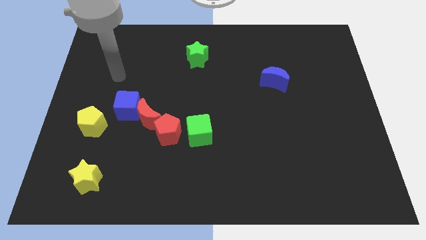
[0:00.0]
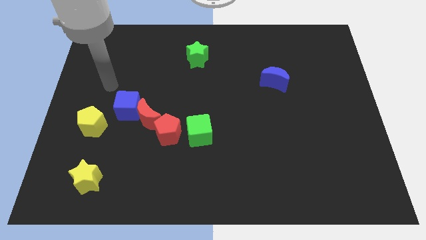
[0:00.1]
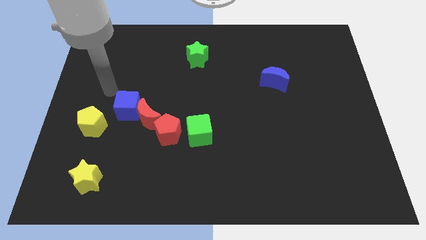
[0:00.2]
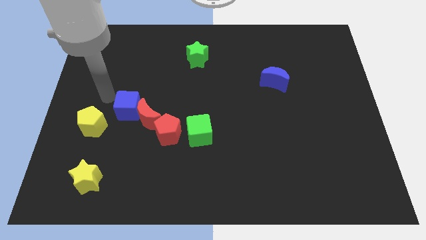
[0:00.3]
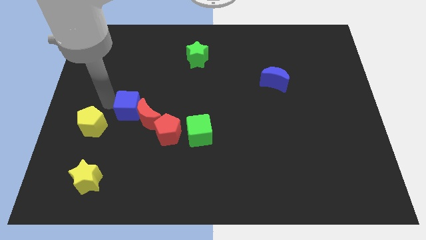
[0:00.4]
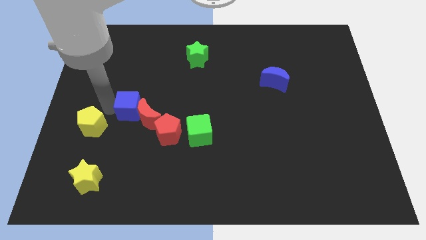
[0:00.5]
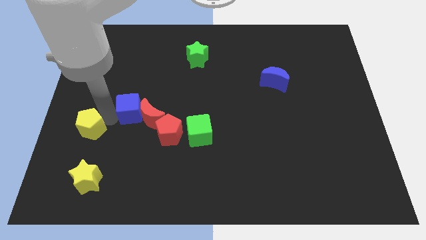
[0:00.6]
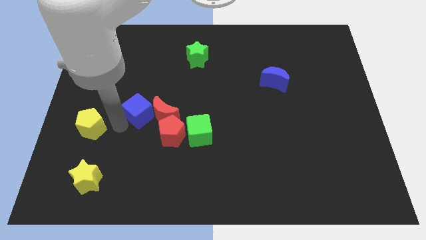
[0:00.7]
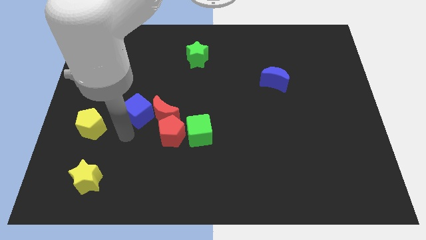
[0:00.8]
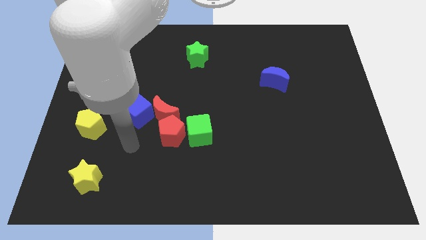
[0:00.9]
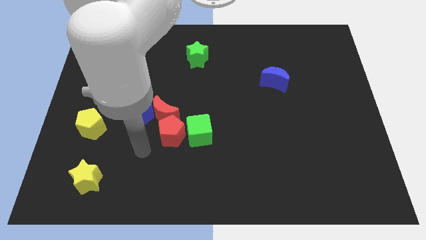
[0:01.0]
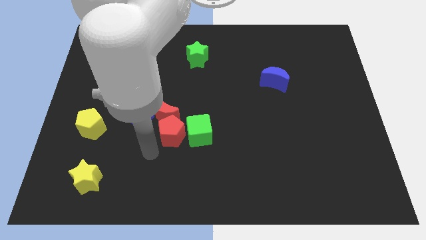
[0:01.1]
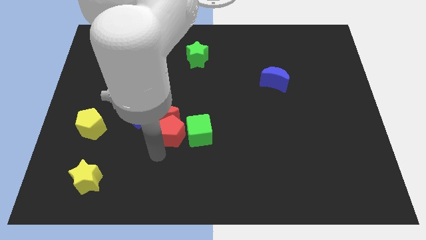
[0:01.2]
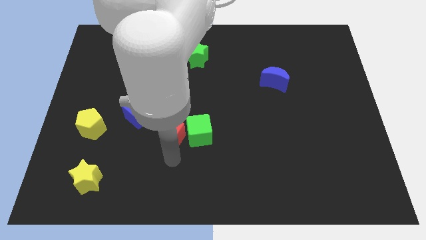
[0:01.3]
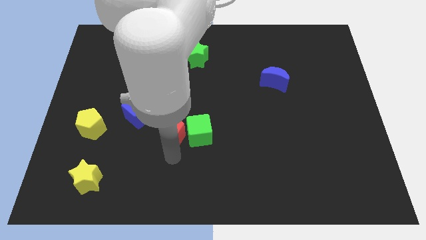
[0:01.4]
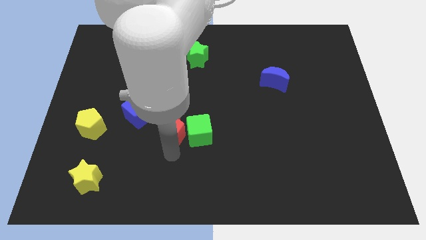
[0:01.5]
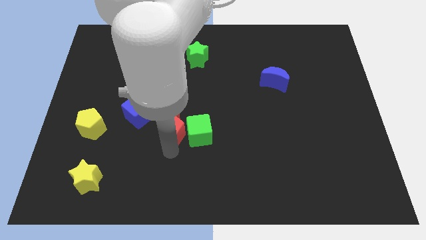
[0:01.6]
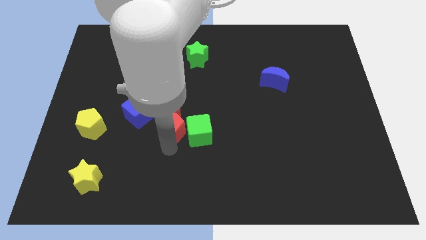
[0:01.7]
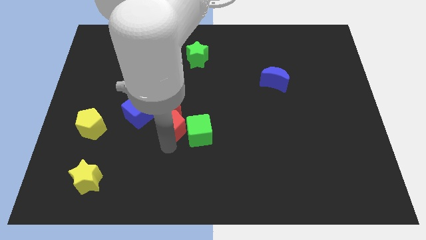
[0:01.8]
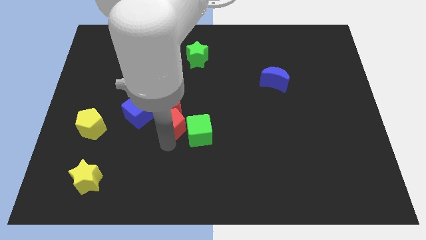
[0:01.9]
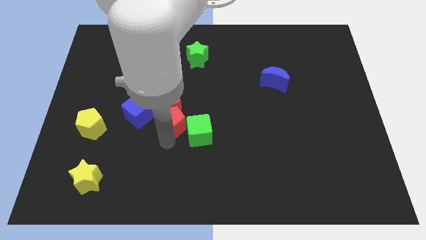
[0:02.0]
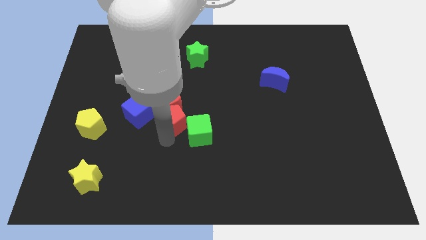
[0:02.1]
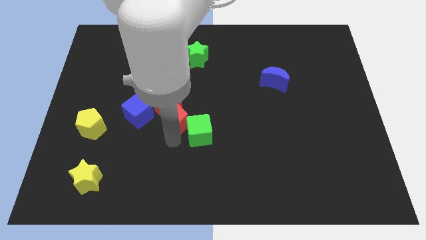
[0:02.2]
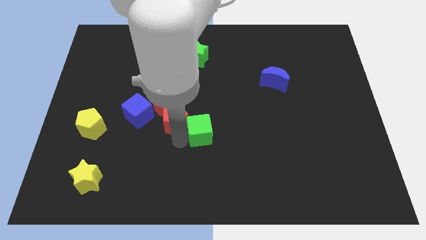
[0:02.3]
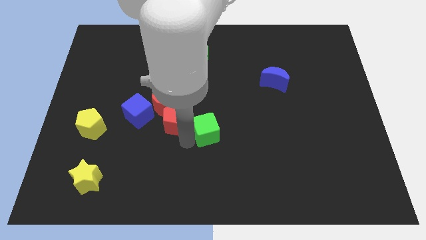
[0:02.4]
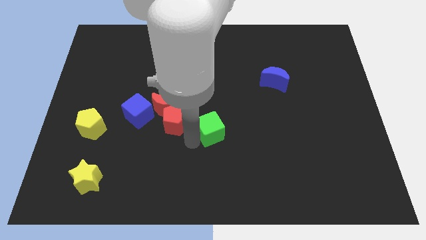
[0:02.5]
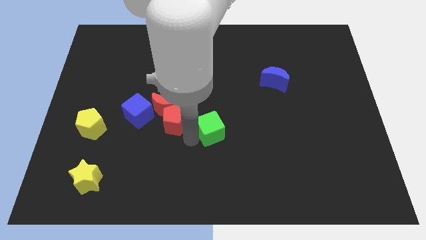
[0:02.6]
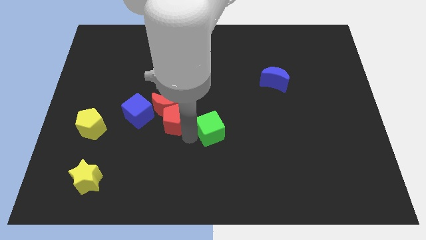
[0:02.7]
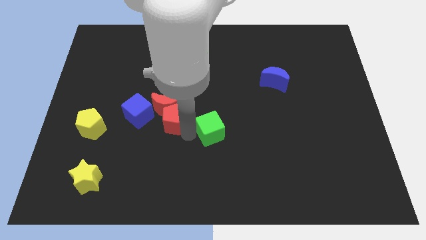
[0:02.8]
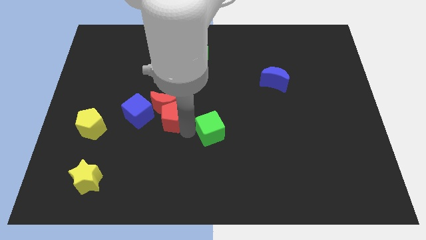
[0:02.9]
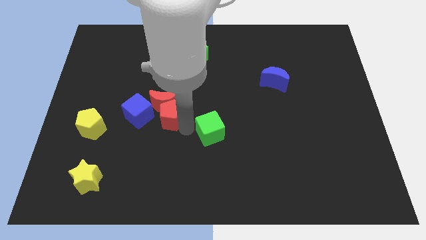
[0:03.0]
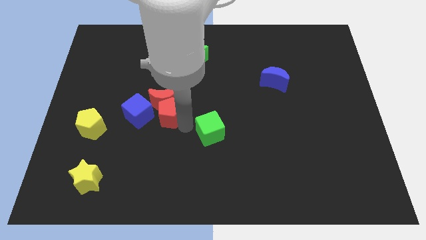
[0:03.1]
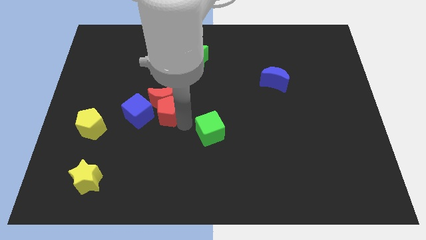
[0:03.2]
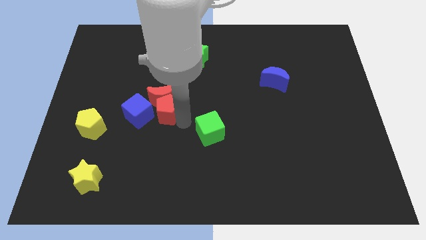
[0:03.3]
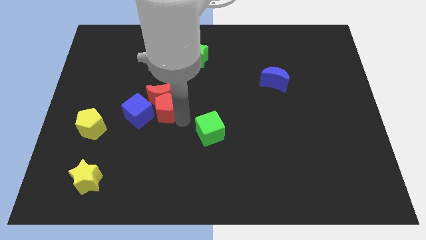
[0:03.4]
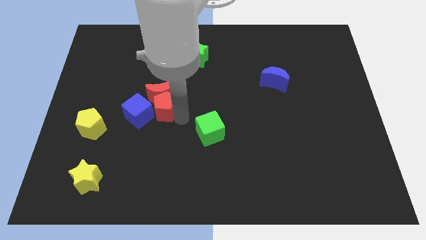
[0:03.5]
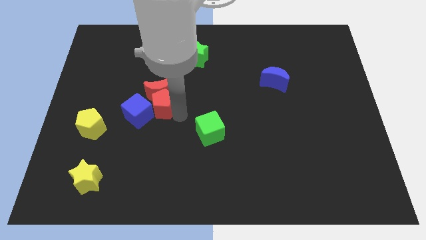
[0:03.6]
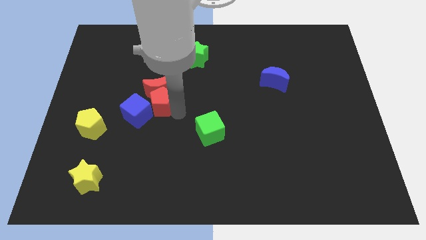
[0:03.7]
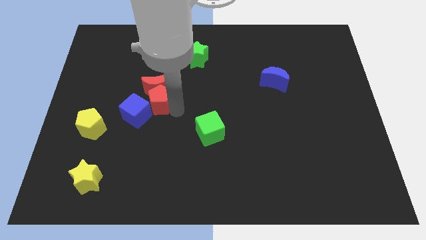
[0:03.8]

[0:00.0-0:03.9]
slightly slide the red pentagon diagonally up and to the left

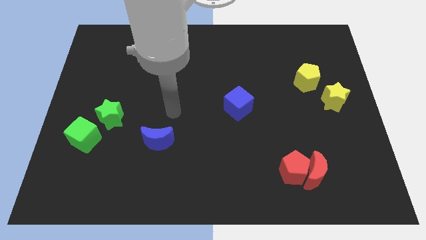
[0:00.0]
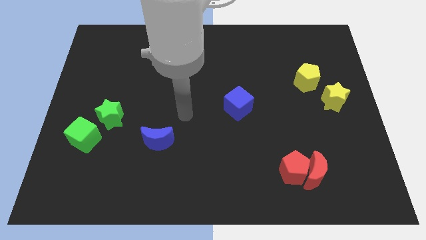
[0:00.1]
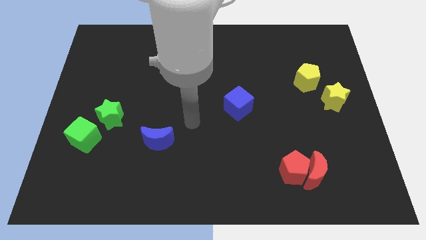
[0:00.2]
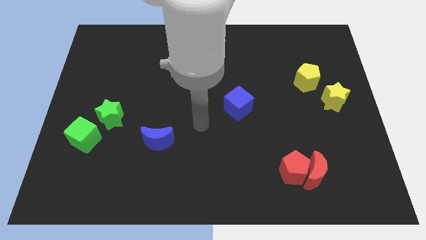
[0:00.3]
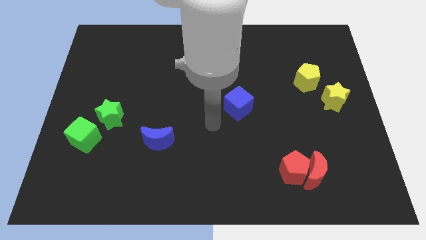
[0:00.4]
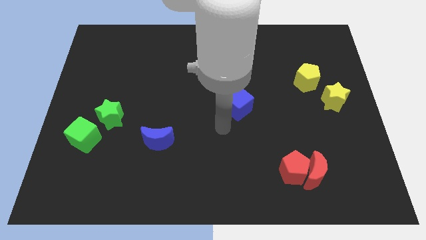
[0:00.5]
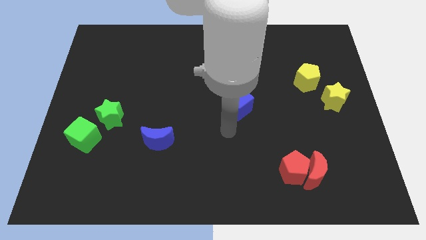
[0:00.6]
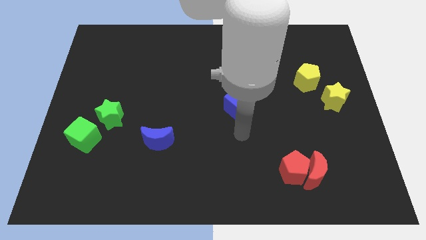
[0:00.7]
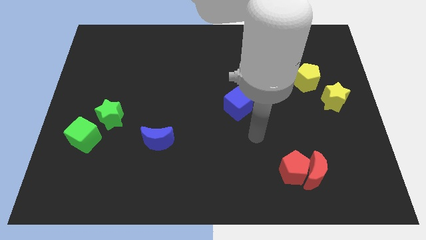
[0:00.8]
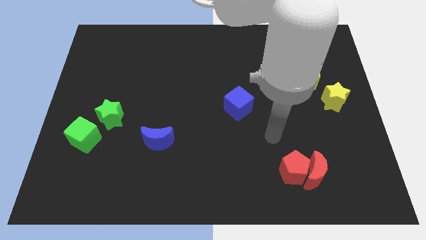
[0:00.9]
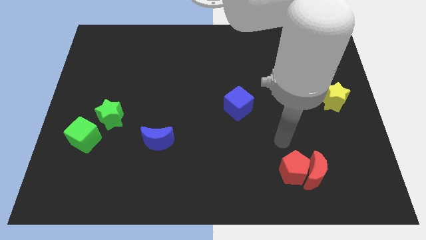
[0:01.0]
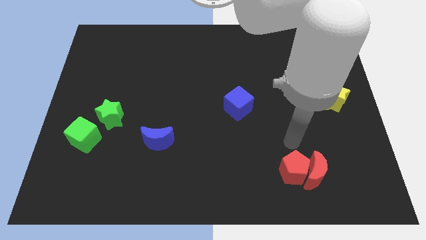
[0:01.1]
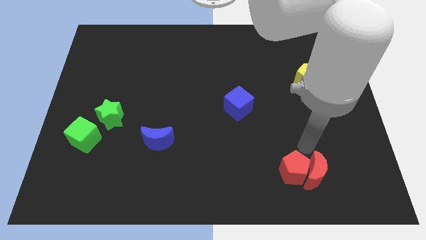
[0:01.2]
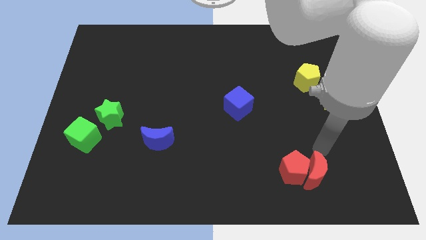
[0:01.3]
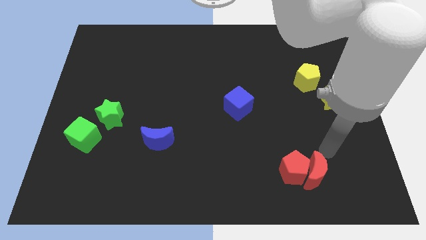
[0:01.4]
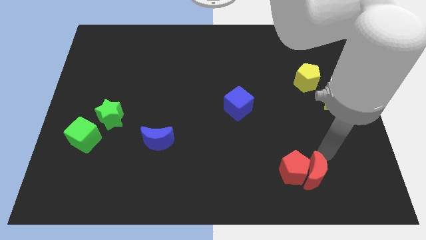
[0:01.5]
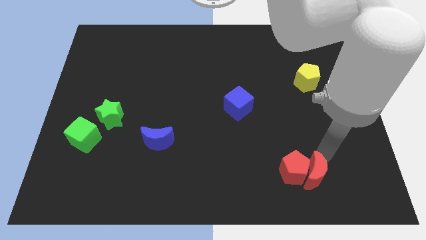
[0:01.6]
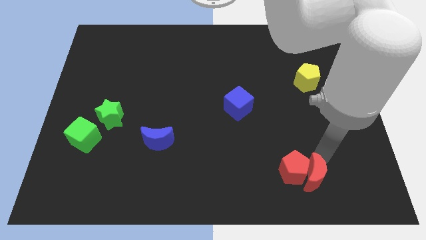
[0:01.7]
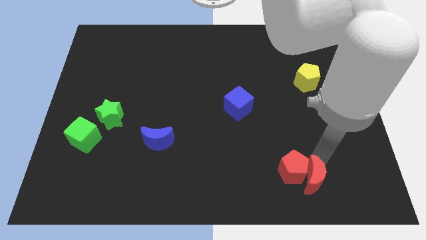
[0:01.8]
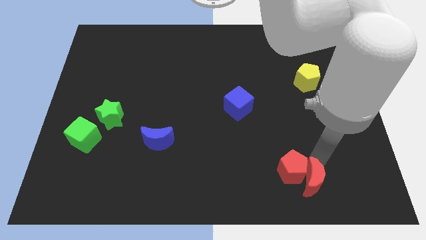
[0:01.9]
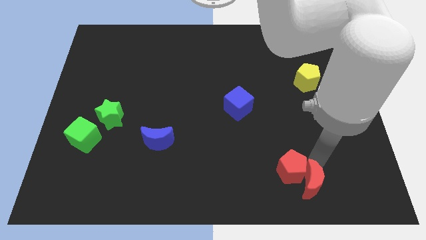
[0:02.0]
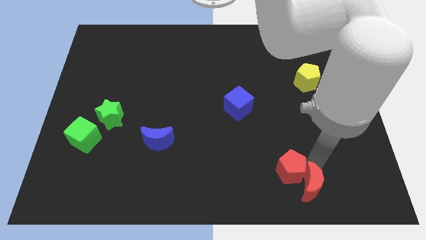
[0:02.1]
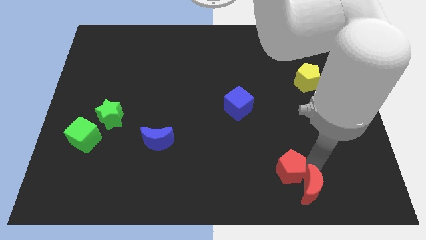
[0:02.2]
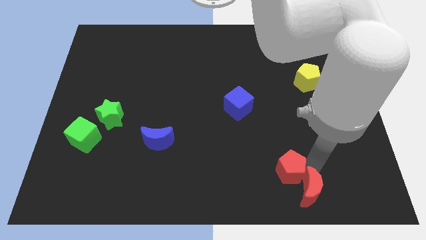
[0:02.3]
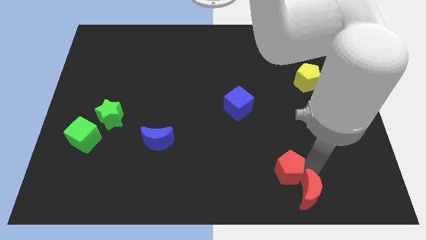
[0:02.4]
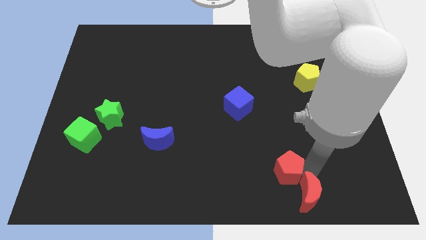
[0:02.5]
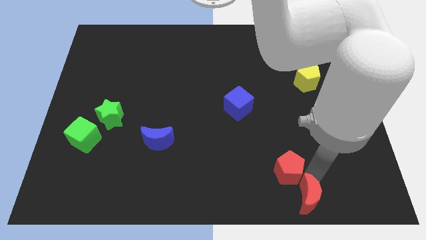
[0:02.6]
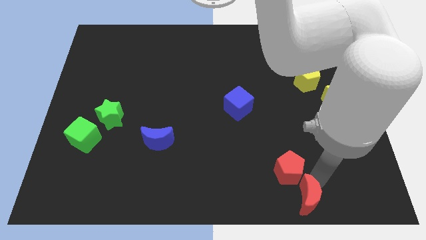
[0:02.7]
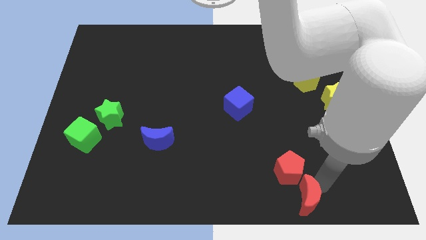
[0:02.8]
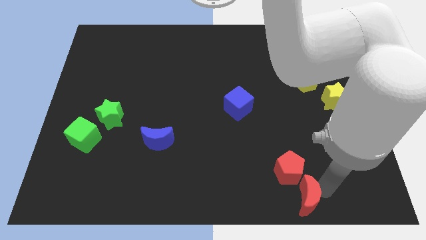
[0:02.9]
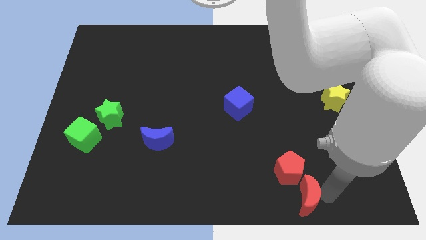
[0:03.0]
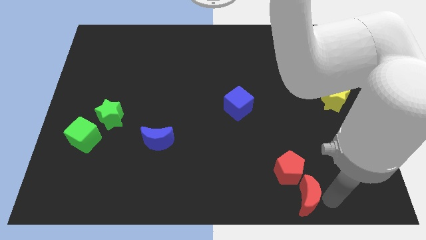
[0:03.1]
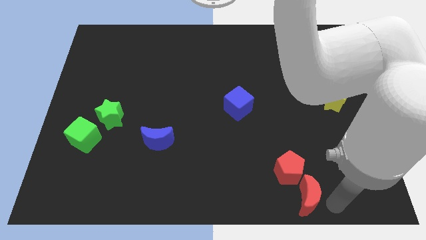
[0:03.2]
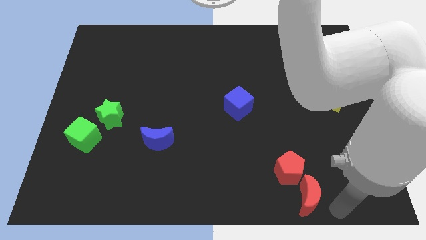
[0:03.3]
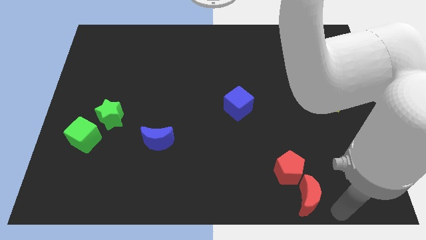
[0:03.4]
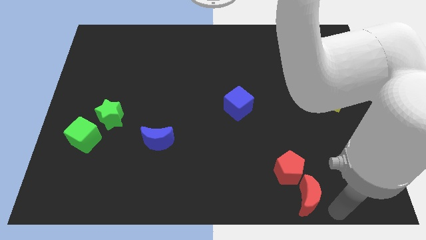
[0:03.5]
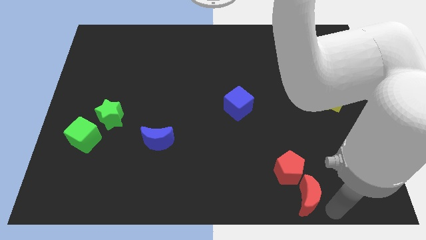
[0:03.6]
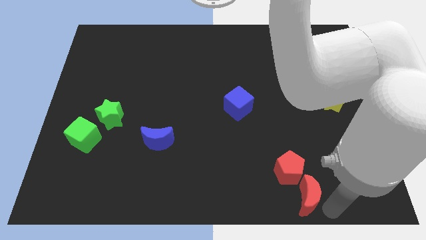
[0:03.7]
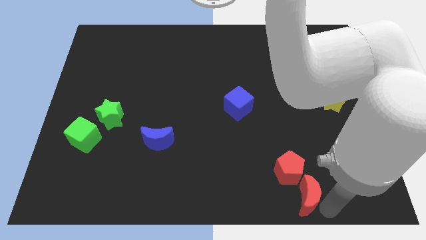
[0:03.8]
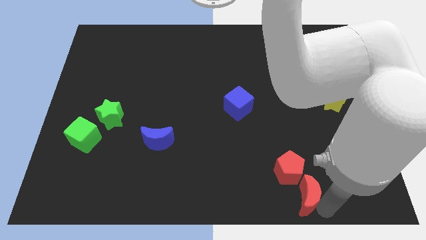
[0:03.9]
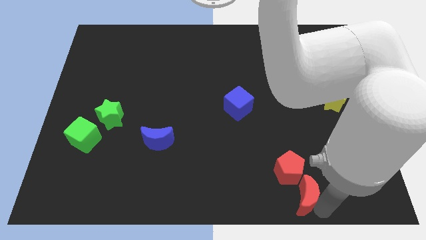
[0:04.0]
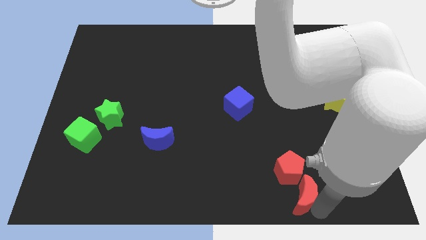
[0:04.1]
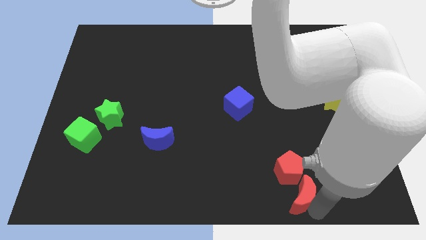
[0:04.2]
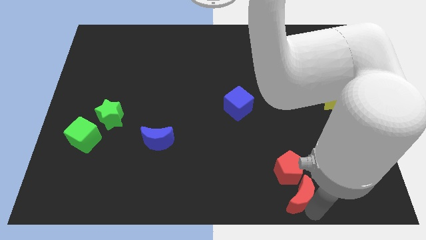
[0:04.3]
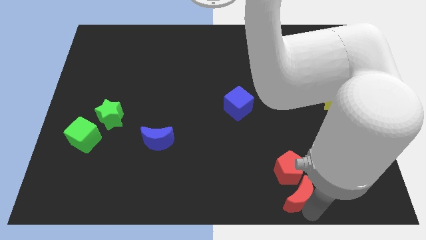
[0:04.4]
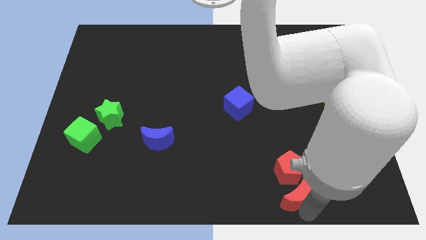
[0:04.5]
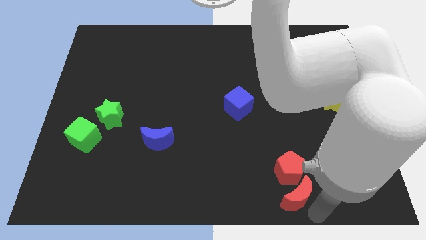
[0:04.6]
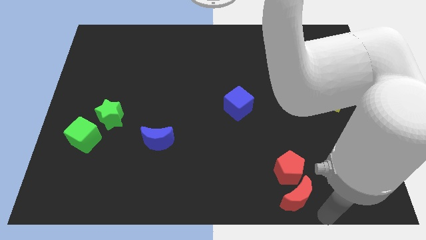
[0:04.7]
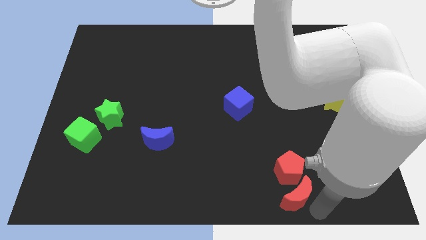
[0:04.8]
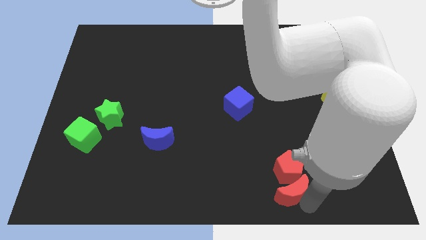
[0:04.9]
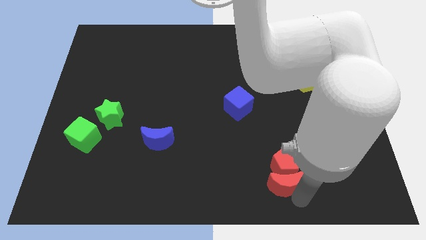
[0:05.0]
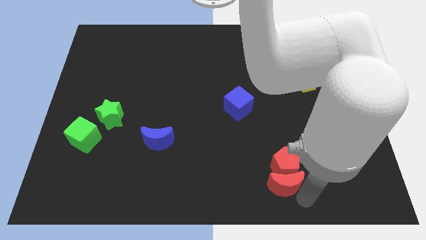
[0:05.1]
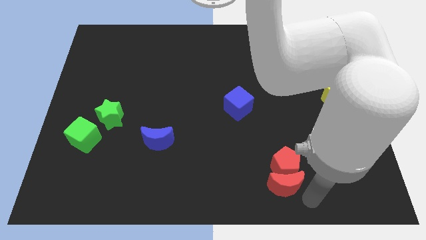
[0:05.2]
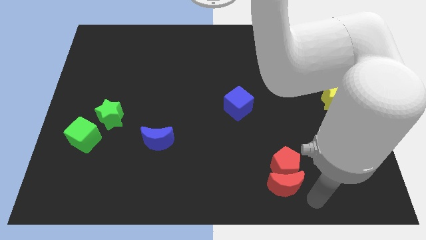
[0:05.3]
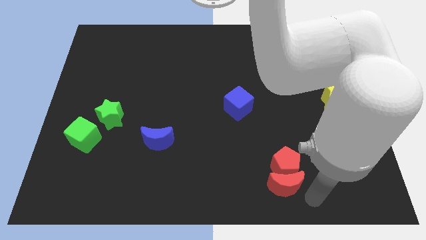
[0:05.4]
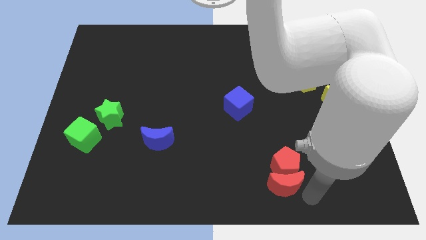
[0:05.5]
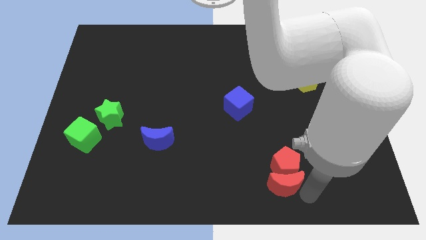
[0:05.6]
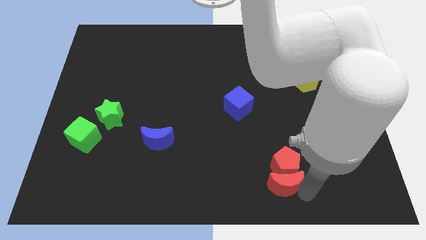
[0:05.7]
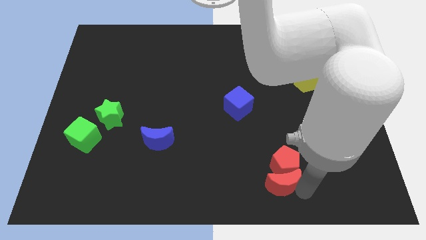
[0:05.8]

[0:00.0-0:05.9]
slightly push the red moon to the left
